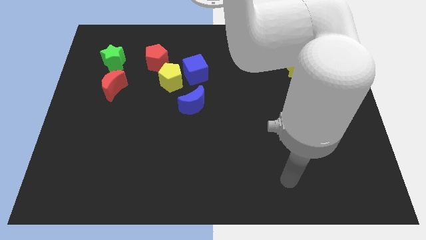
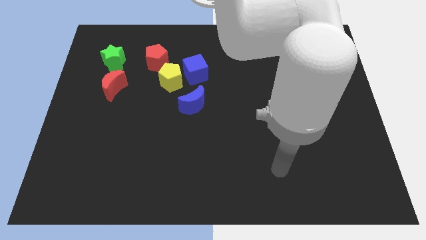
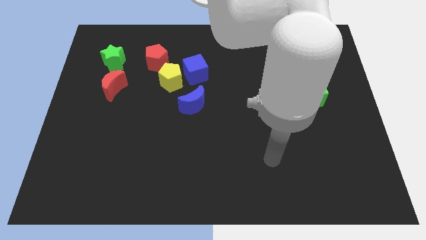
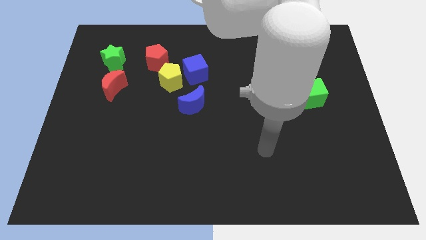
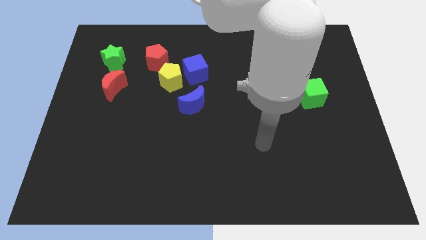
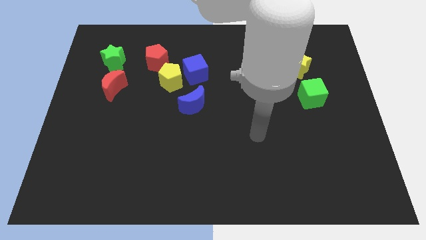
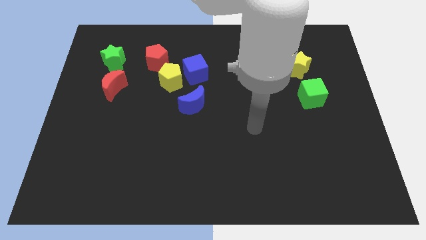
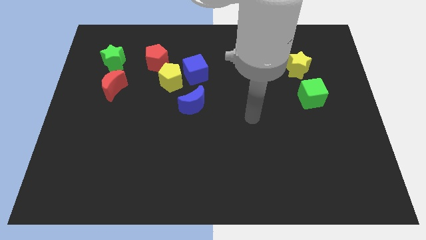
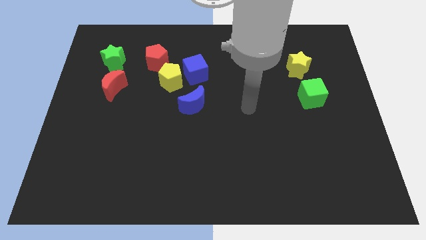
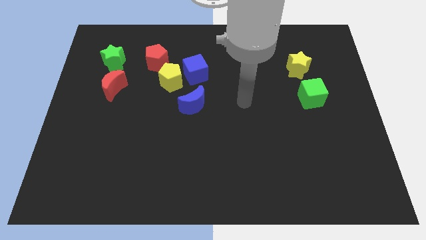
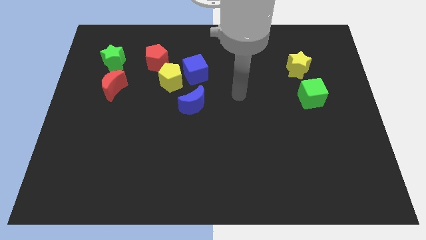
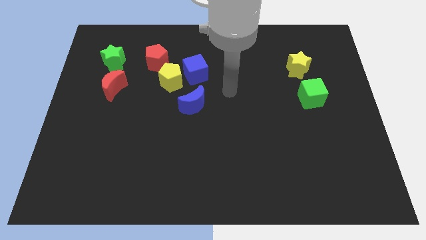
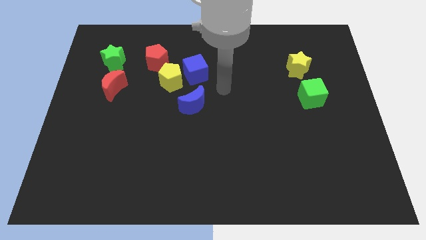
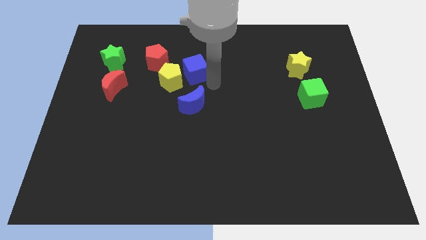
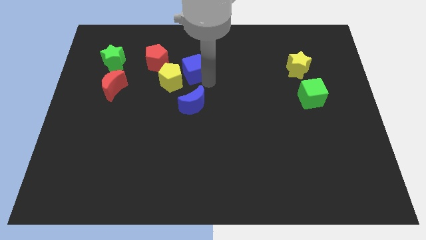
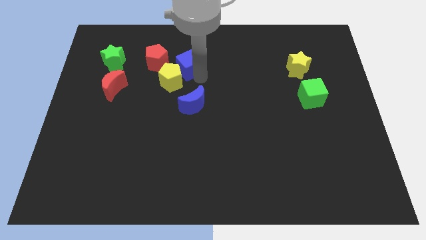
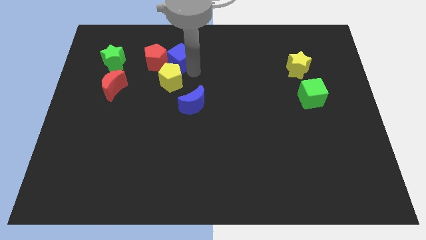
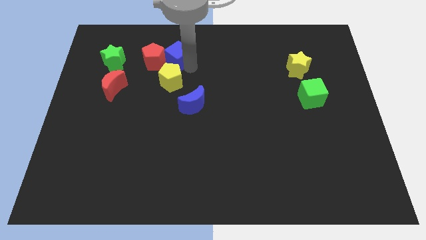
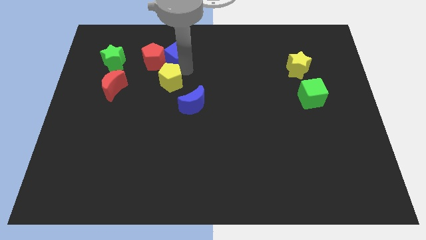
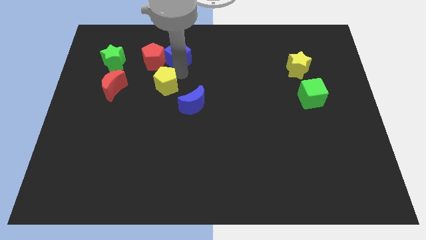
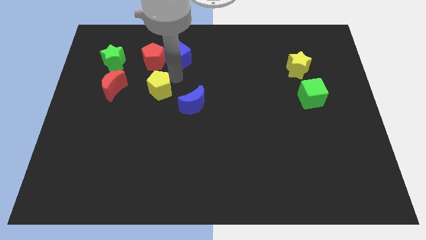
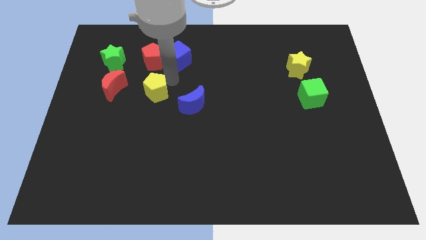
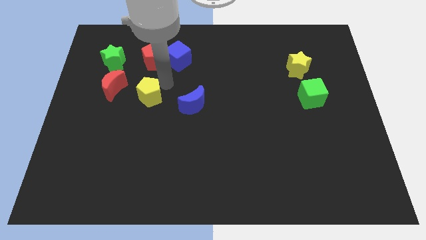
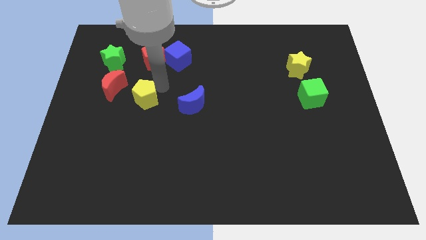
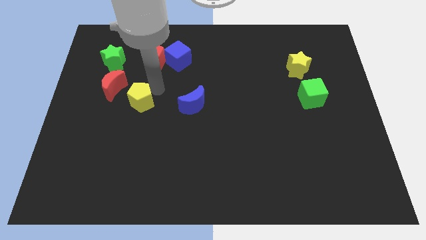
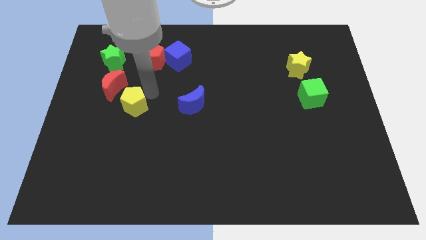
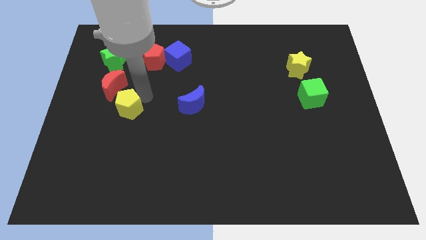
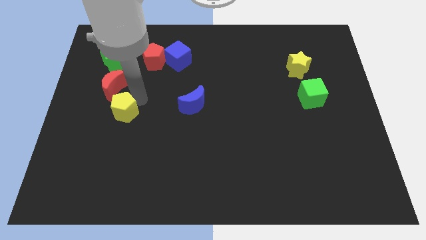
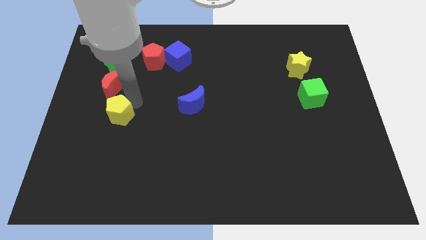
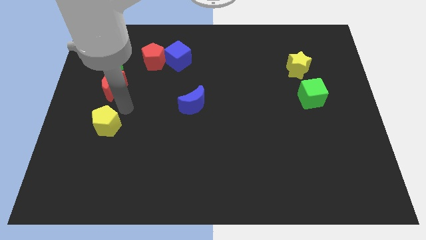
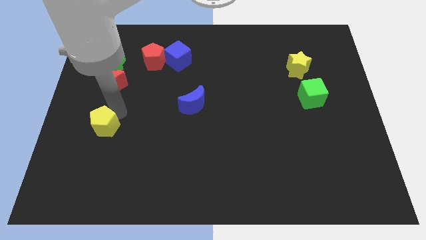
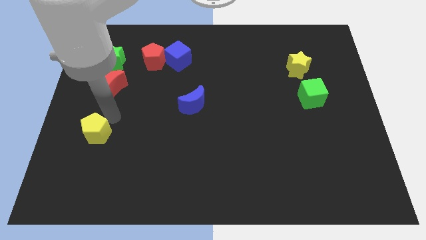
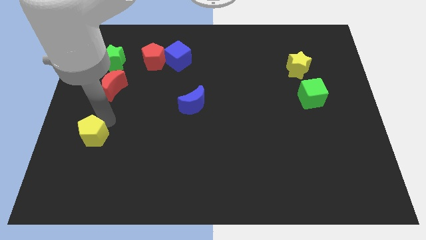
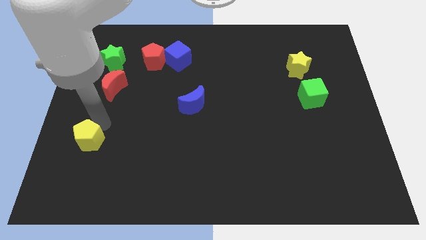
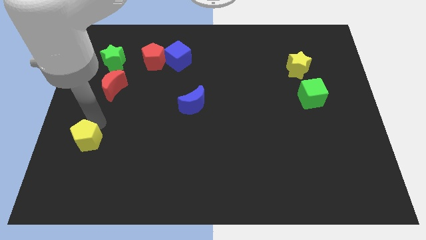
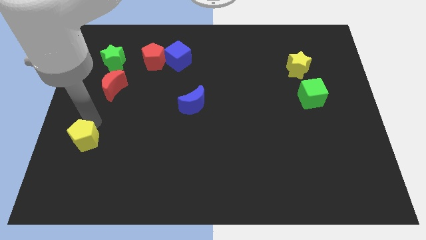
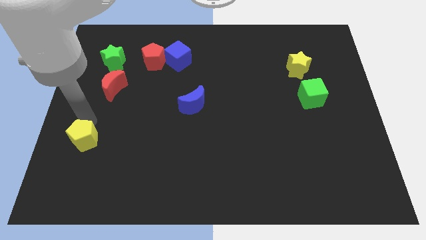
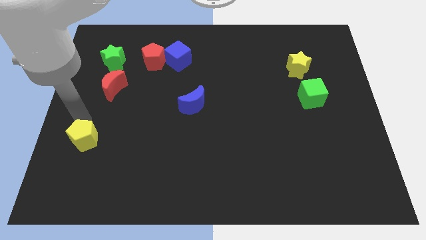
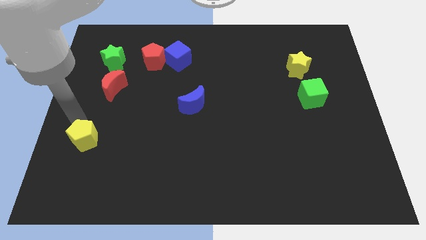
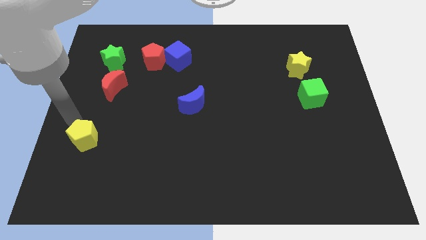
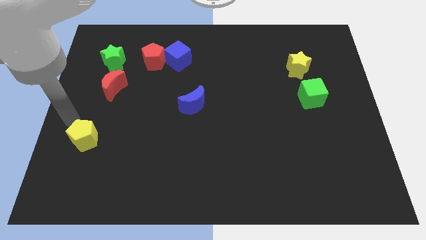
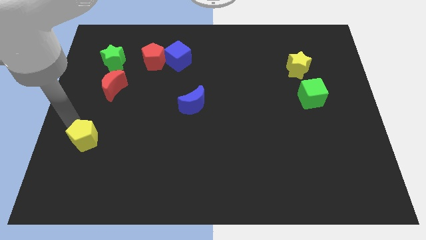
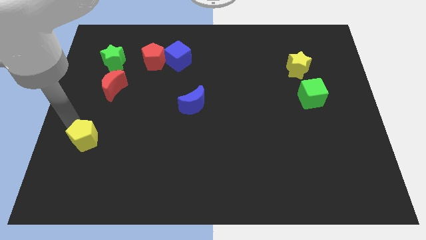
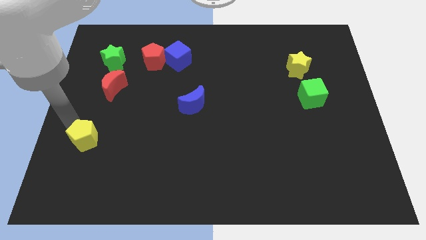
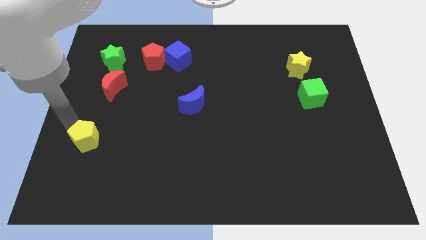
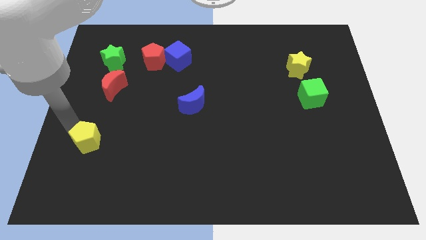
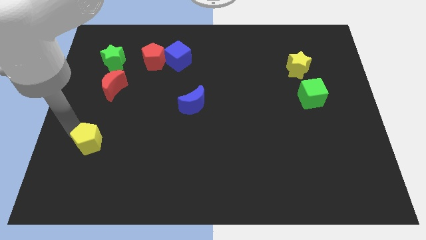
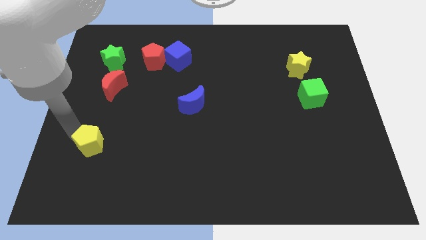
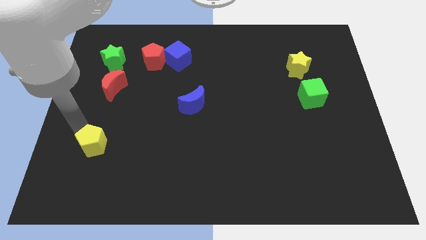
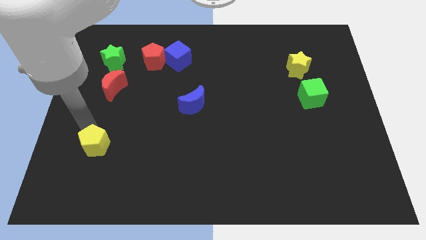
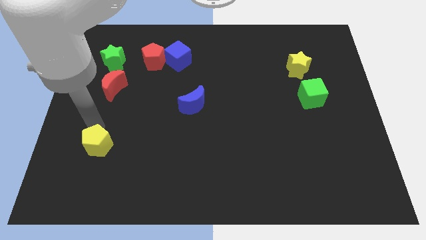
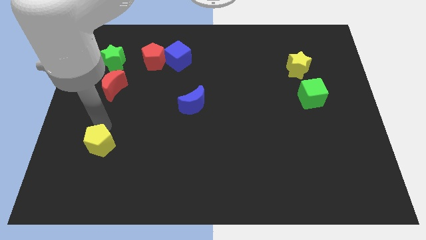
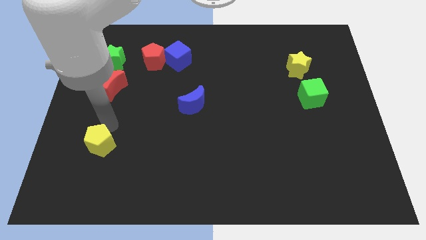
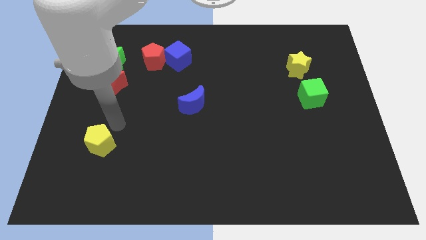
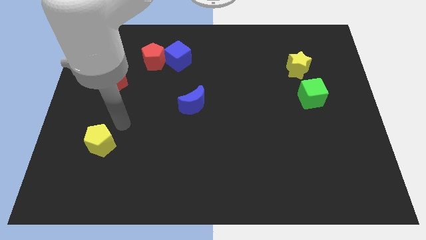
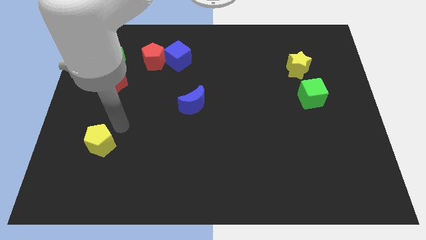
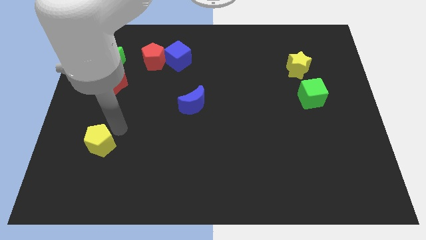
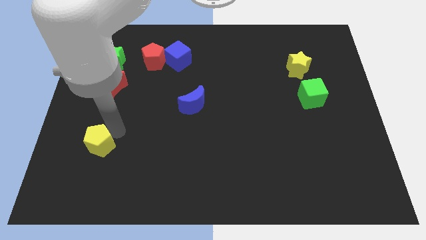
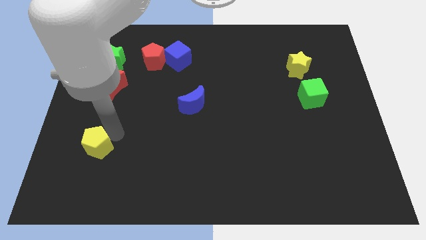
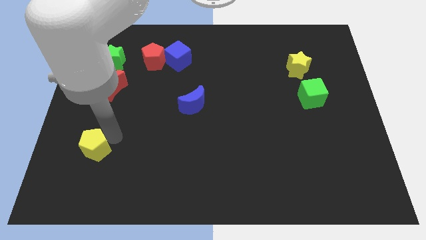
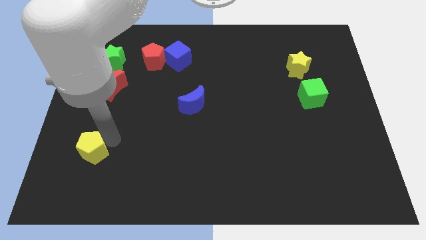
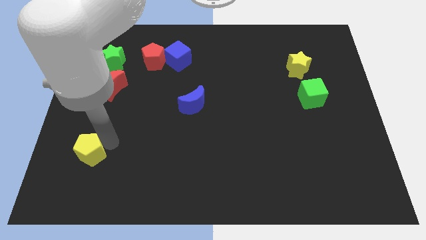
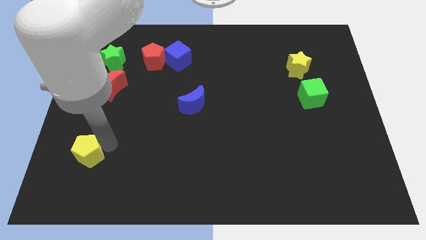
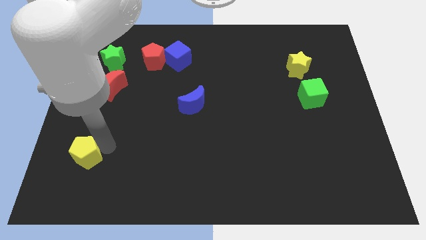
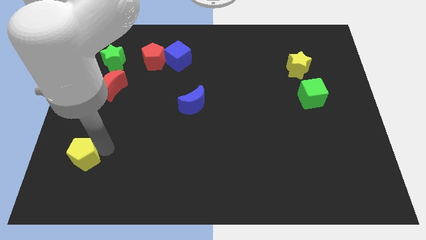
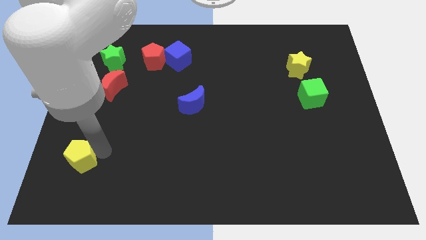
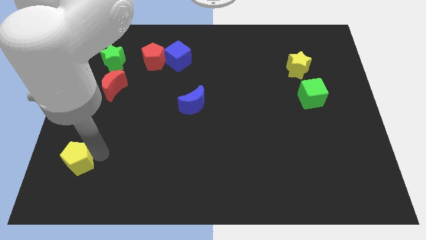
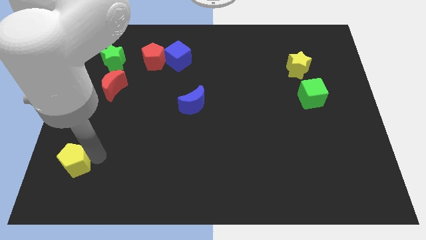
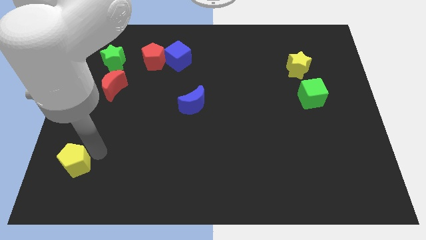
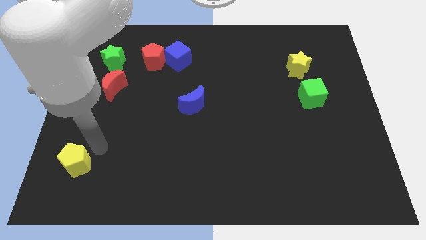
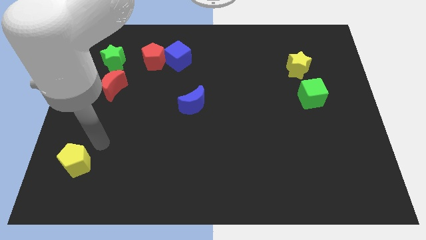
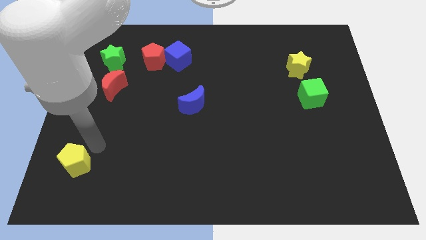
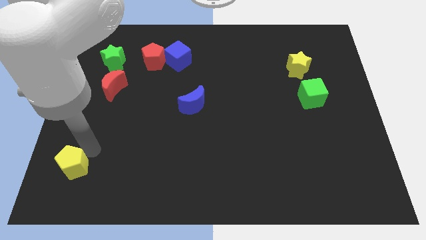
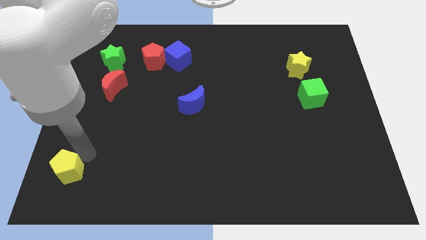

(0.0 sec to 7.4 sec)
push the yellow pentagon to the bottom left
